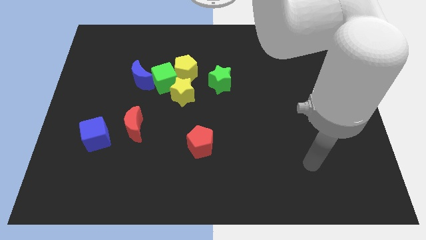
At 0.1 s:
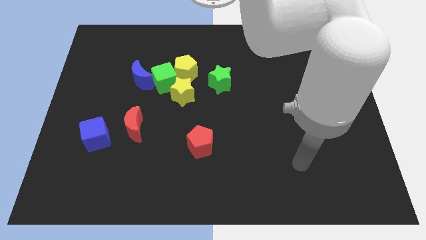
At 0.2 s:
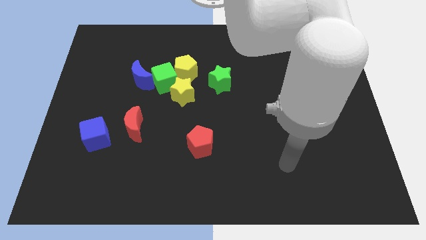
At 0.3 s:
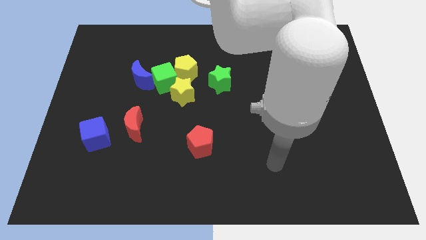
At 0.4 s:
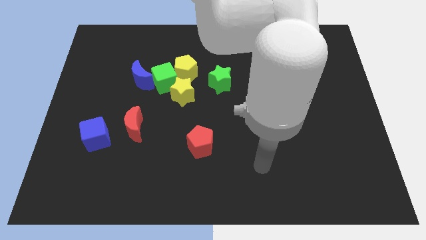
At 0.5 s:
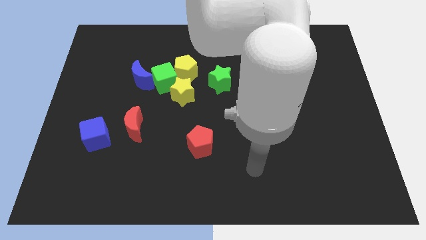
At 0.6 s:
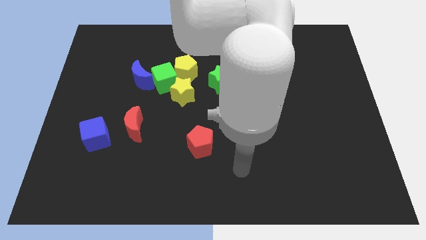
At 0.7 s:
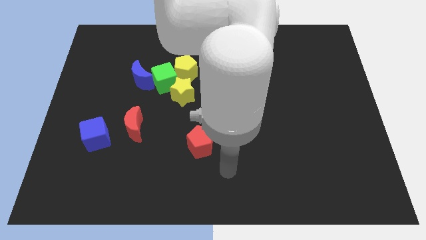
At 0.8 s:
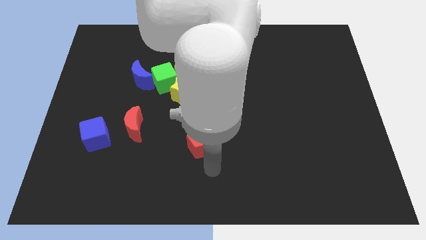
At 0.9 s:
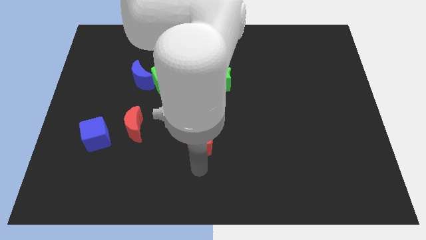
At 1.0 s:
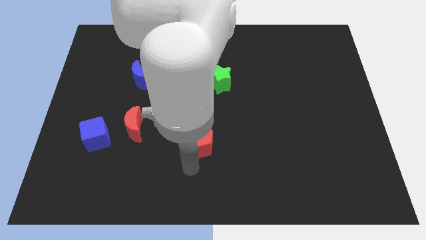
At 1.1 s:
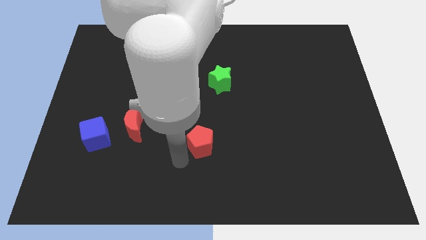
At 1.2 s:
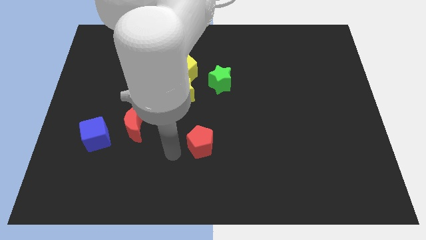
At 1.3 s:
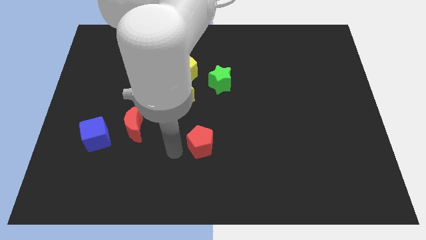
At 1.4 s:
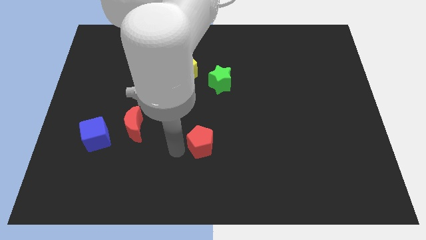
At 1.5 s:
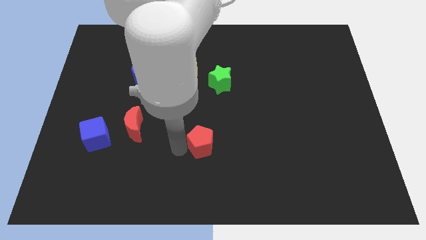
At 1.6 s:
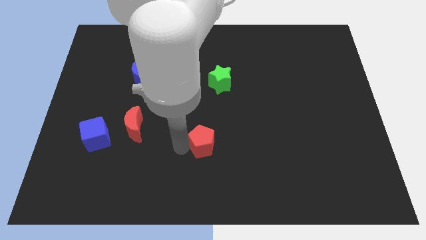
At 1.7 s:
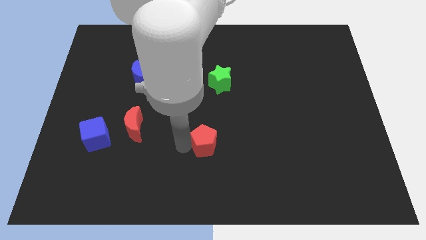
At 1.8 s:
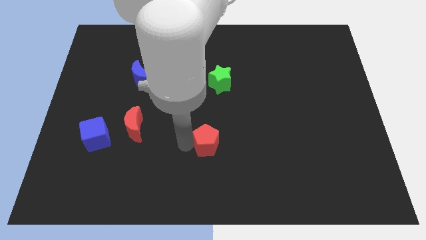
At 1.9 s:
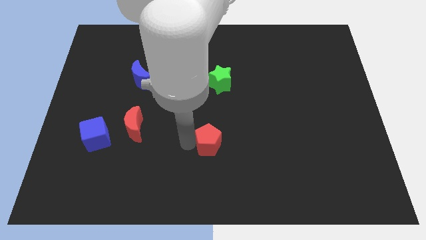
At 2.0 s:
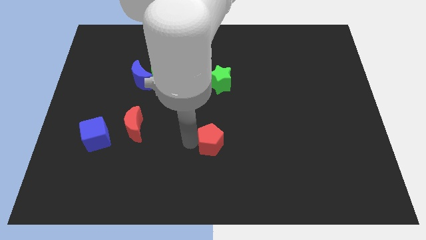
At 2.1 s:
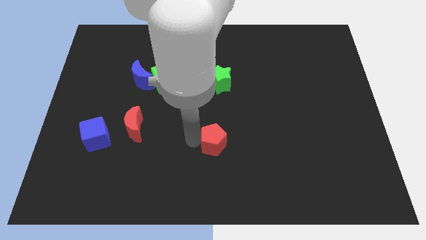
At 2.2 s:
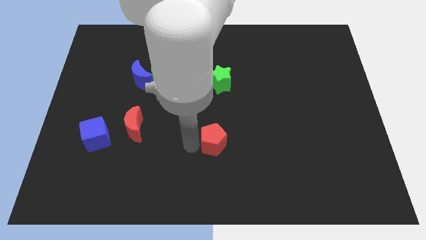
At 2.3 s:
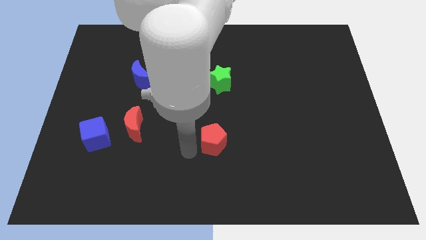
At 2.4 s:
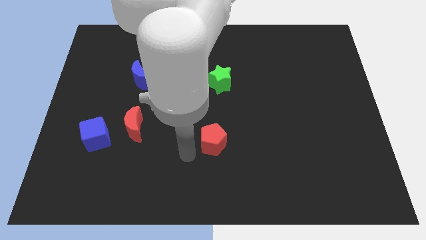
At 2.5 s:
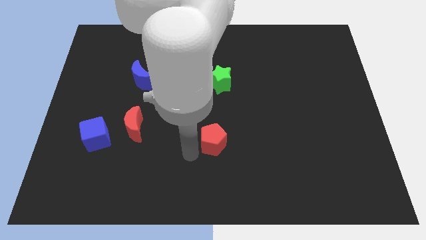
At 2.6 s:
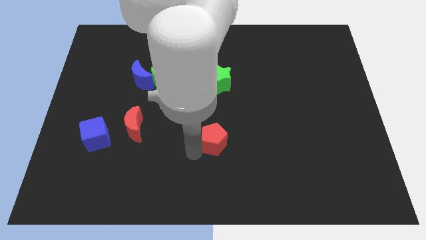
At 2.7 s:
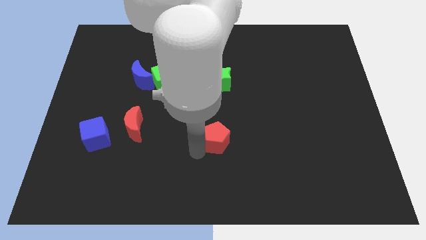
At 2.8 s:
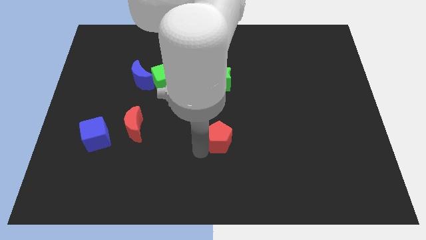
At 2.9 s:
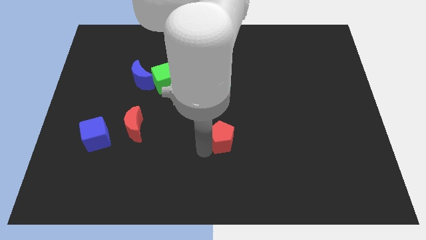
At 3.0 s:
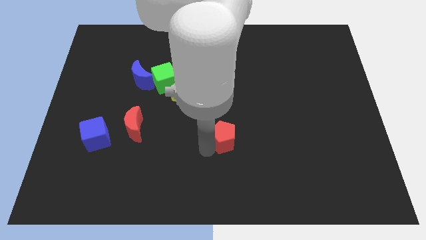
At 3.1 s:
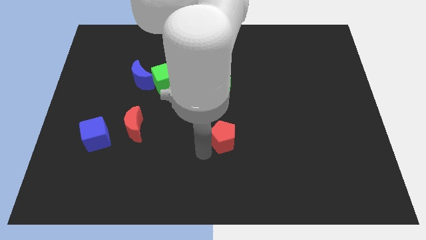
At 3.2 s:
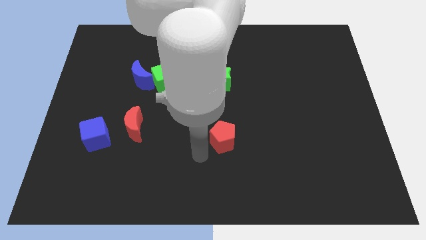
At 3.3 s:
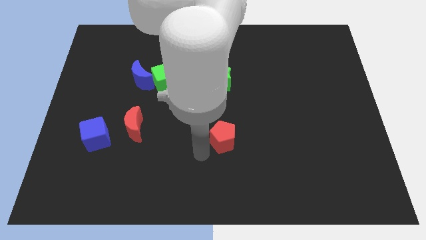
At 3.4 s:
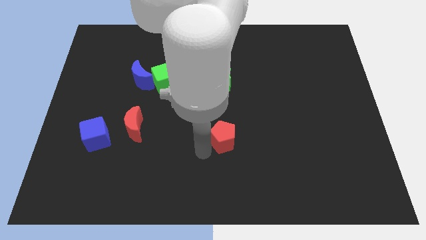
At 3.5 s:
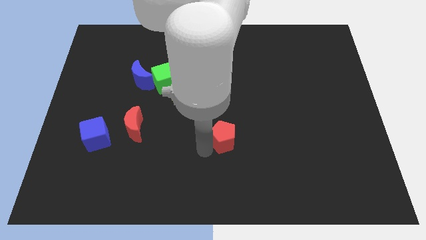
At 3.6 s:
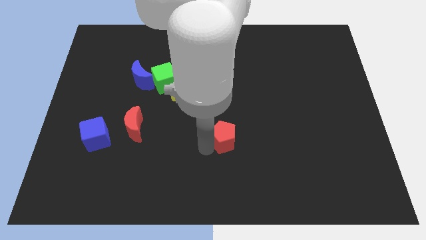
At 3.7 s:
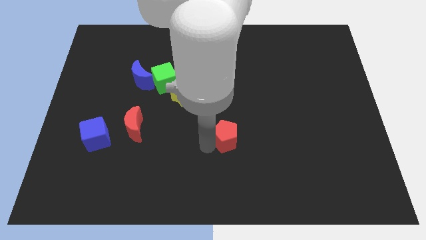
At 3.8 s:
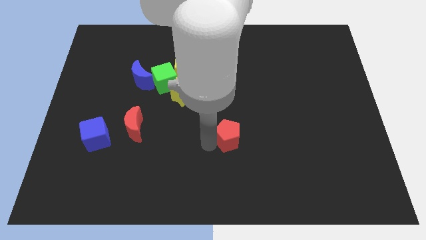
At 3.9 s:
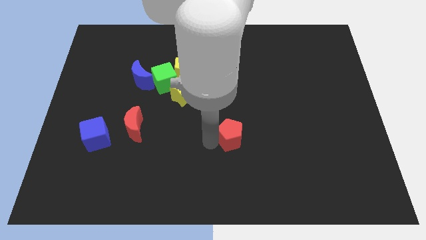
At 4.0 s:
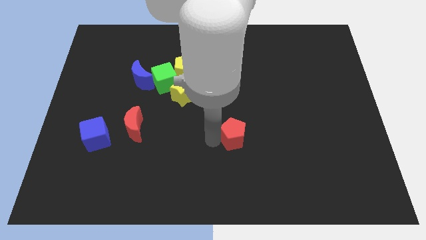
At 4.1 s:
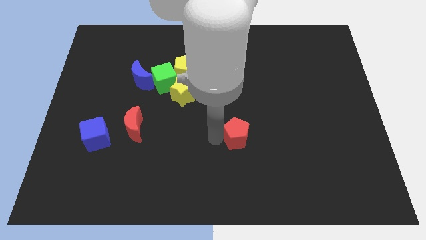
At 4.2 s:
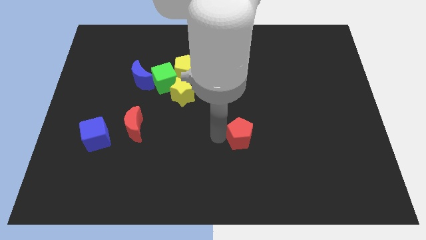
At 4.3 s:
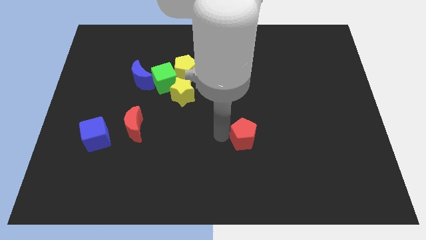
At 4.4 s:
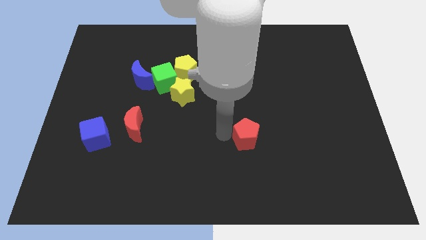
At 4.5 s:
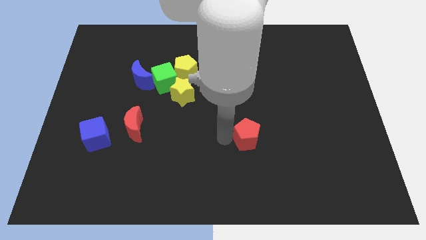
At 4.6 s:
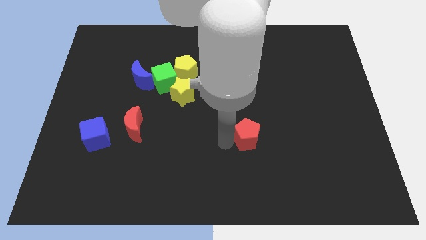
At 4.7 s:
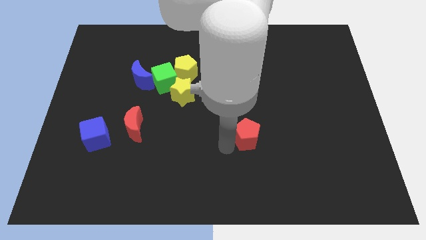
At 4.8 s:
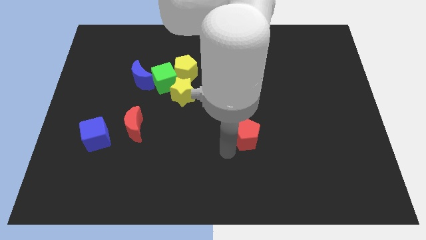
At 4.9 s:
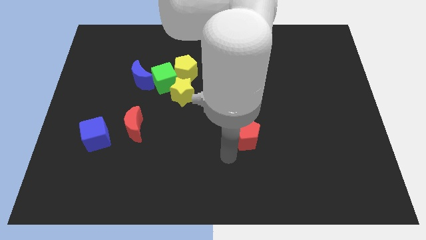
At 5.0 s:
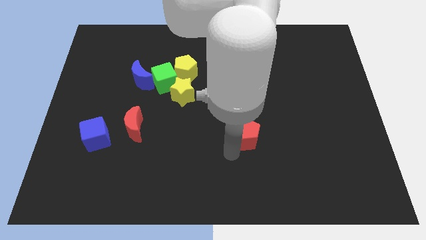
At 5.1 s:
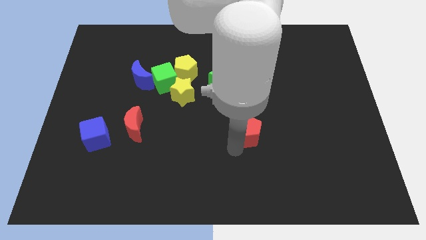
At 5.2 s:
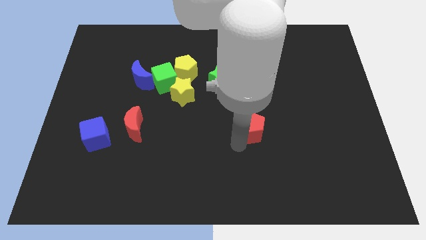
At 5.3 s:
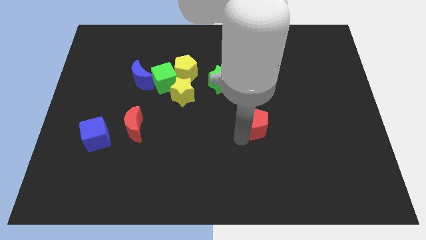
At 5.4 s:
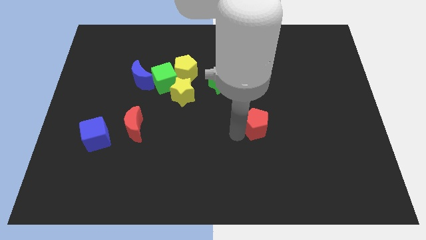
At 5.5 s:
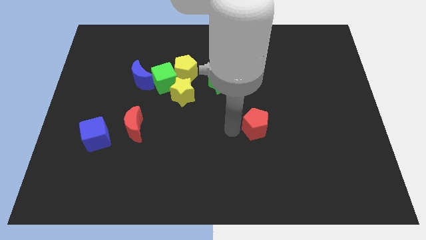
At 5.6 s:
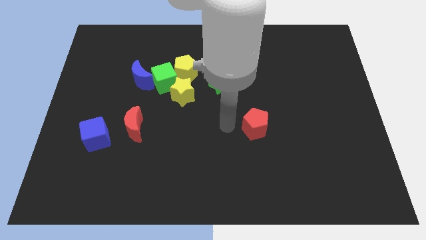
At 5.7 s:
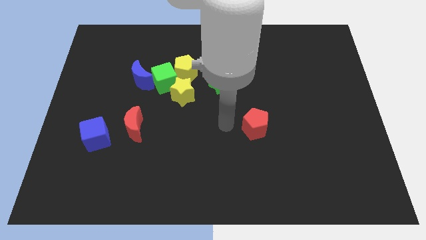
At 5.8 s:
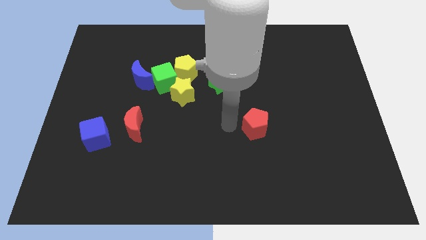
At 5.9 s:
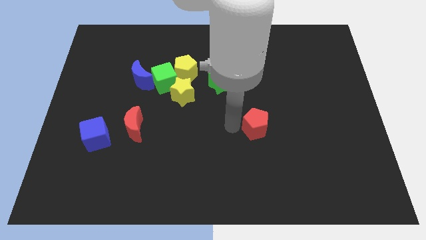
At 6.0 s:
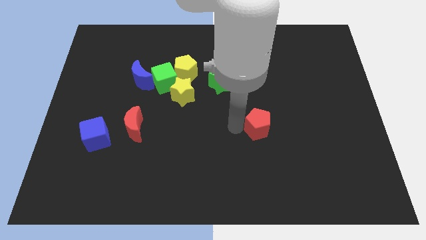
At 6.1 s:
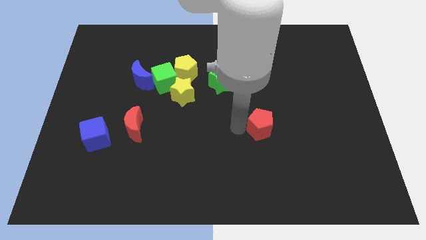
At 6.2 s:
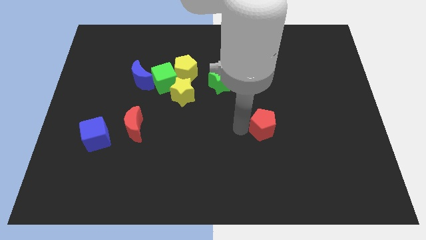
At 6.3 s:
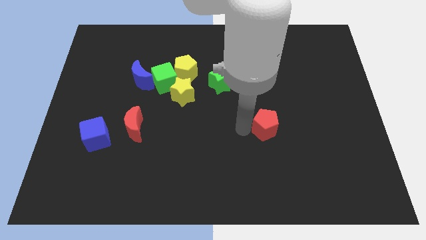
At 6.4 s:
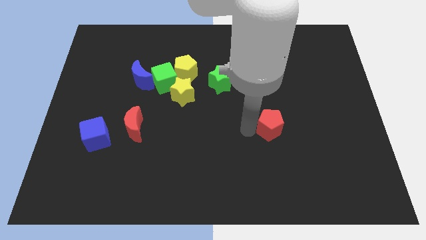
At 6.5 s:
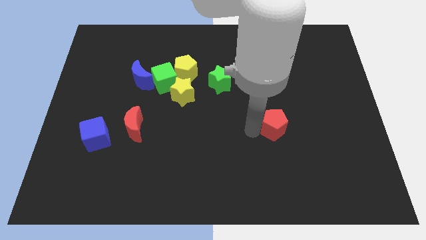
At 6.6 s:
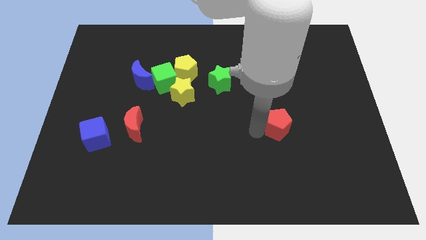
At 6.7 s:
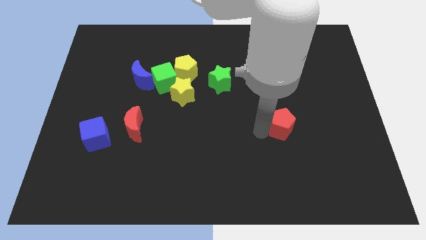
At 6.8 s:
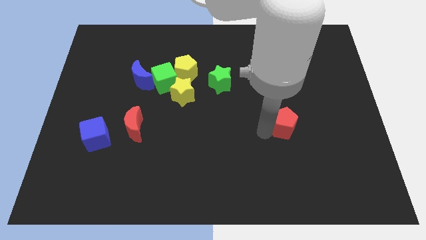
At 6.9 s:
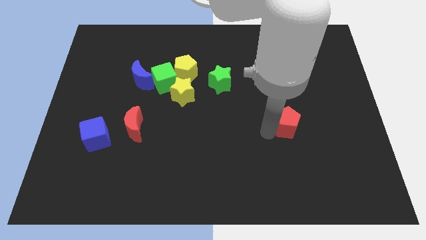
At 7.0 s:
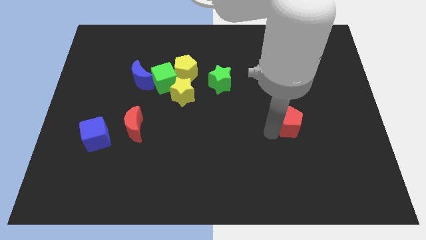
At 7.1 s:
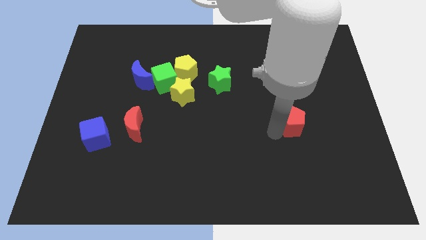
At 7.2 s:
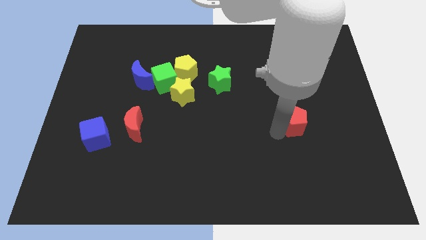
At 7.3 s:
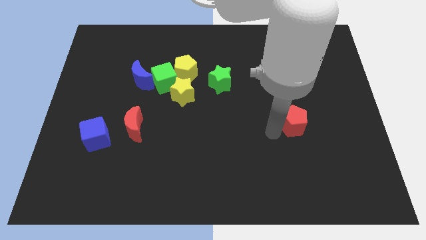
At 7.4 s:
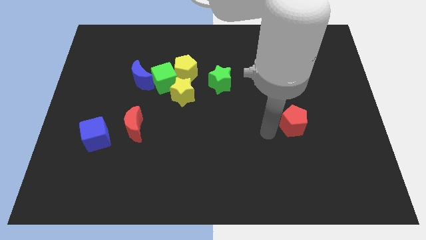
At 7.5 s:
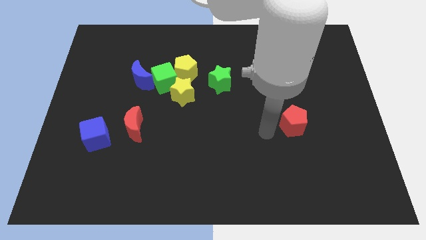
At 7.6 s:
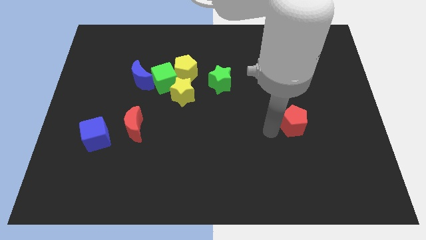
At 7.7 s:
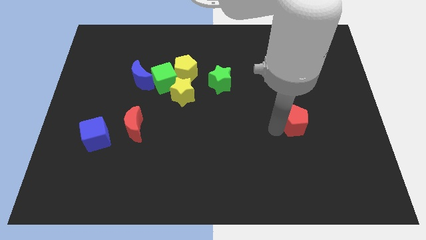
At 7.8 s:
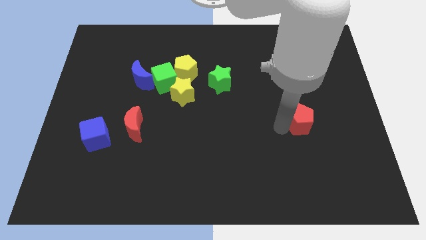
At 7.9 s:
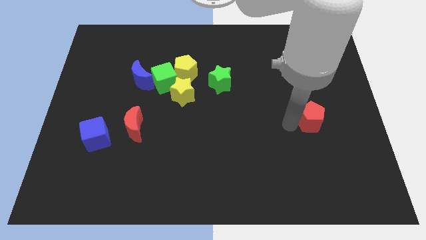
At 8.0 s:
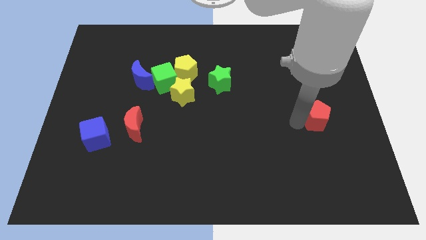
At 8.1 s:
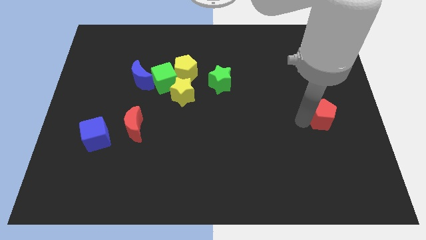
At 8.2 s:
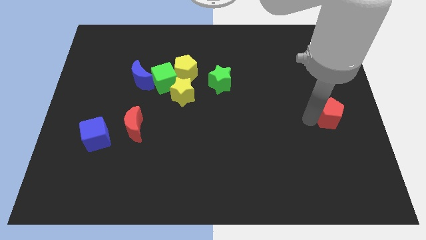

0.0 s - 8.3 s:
put the red pentagon to the right side
